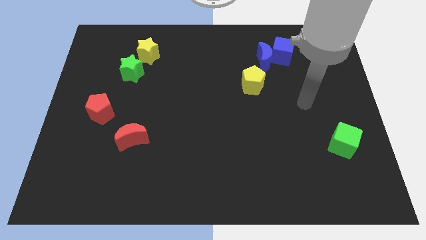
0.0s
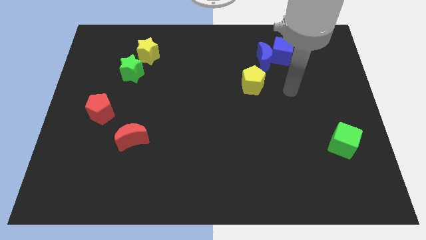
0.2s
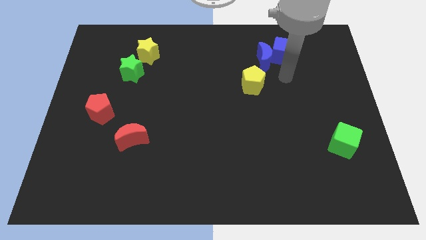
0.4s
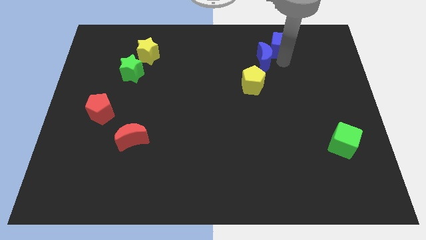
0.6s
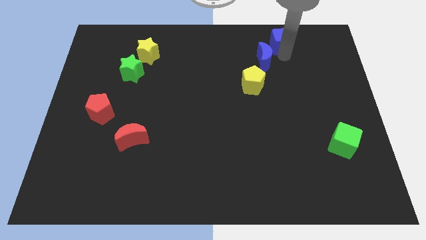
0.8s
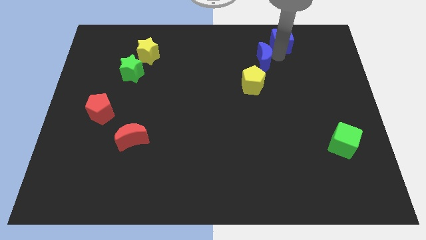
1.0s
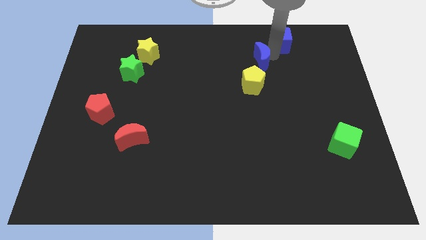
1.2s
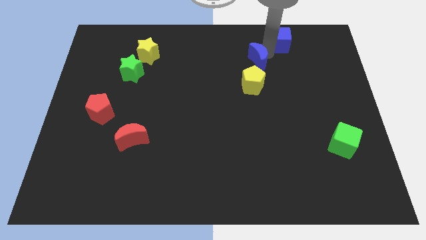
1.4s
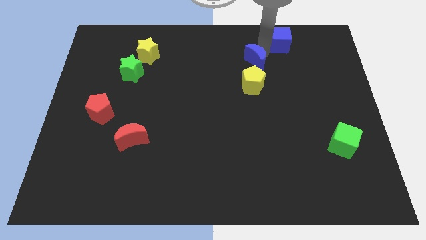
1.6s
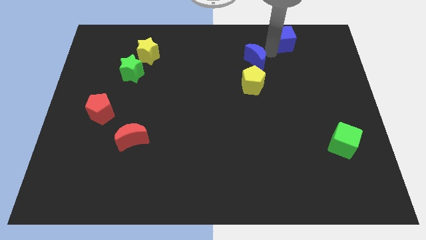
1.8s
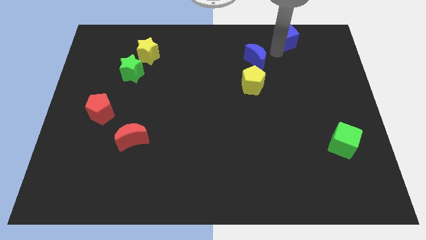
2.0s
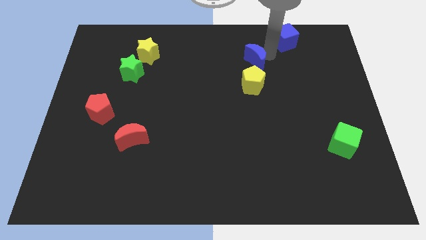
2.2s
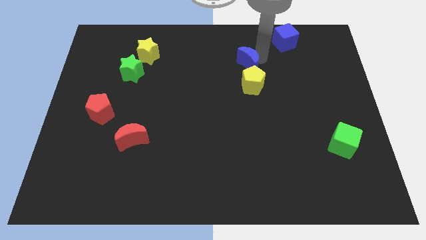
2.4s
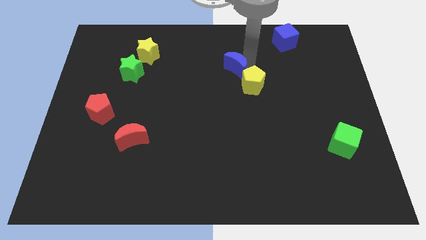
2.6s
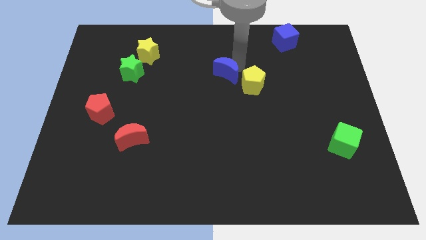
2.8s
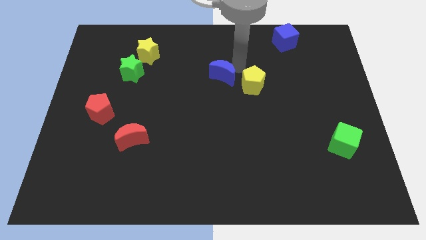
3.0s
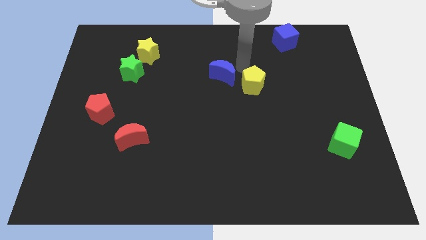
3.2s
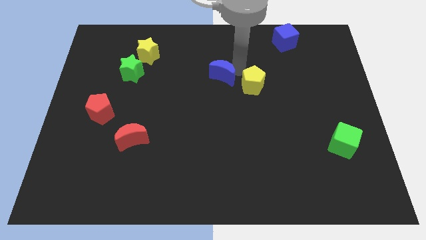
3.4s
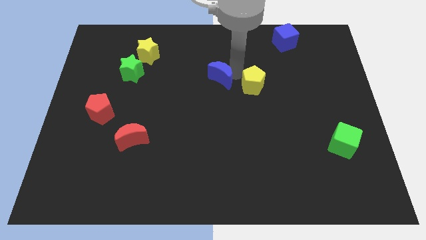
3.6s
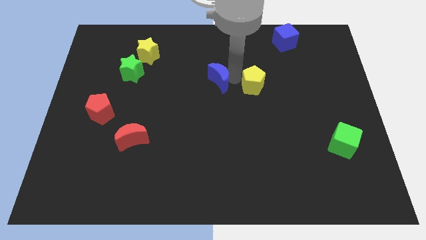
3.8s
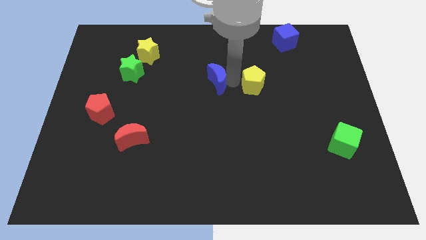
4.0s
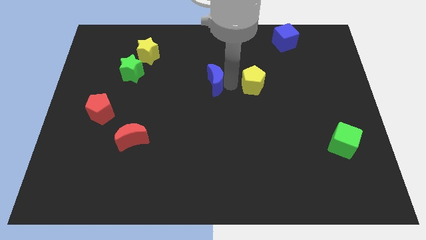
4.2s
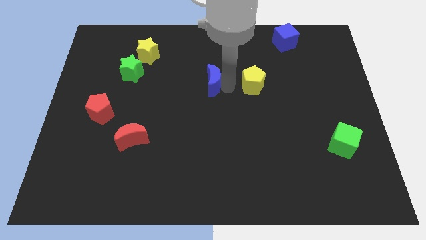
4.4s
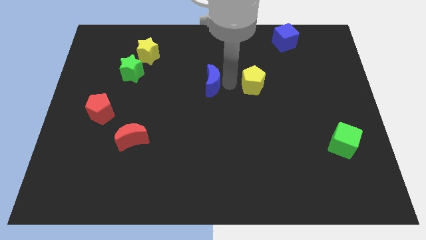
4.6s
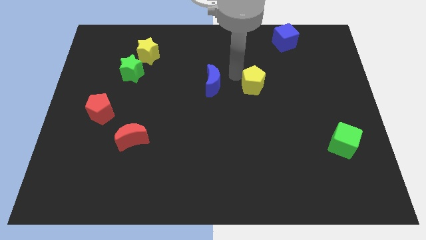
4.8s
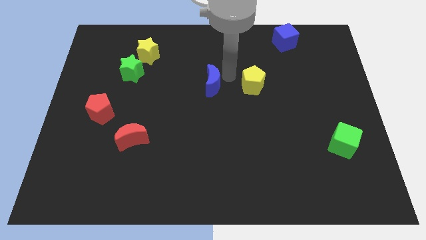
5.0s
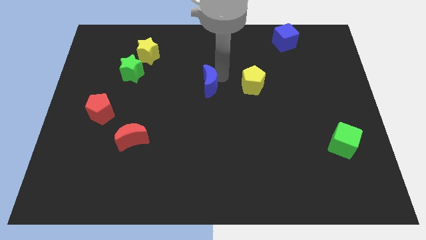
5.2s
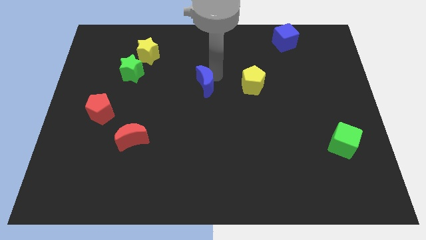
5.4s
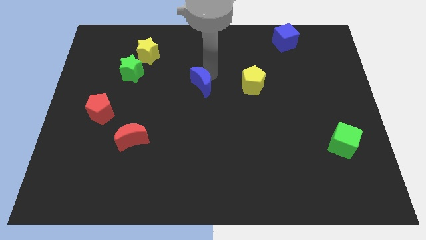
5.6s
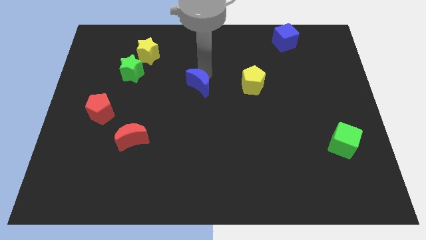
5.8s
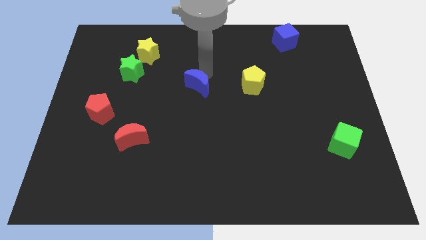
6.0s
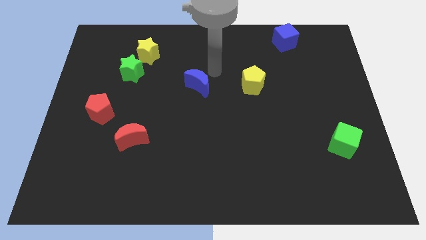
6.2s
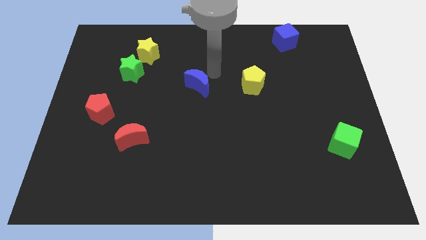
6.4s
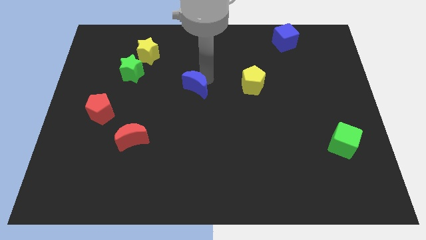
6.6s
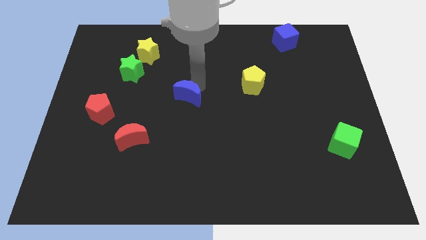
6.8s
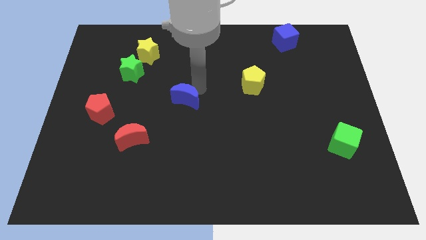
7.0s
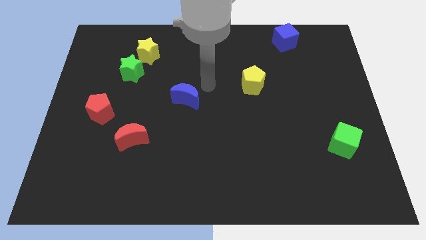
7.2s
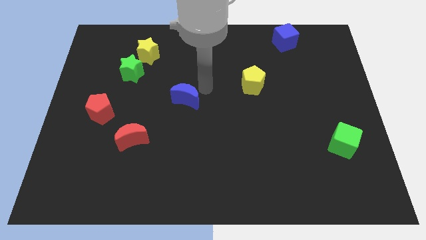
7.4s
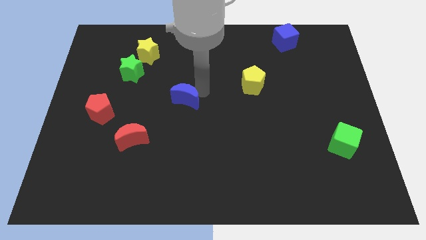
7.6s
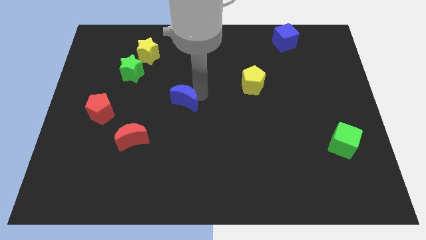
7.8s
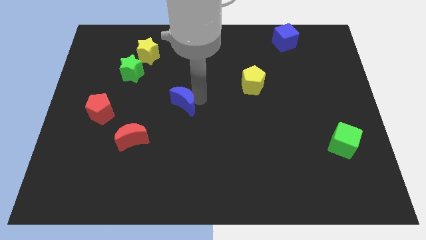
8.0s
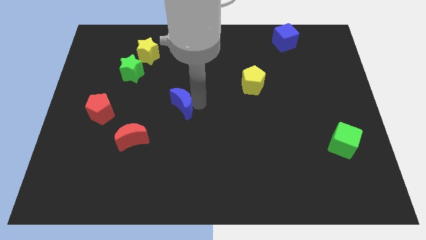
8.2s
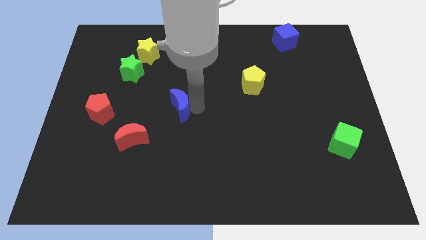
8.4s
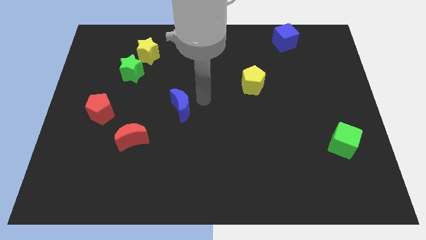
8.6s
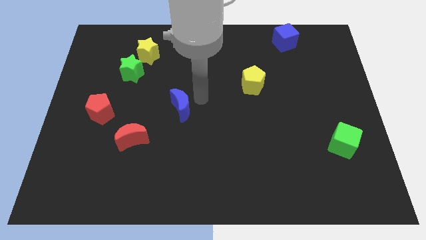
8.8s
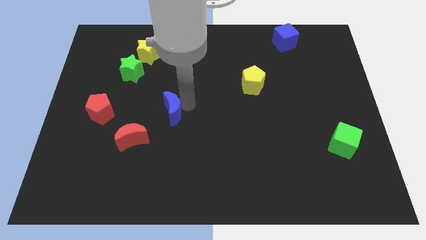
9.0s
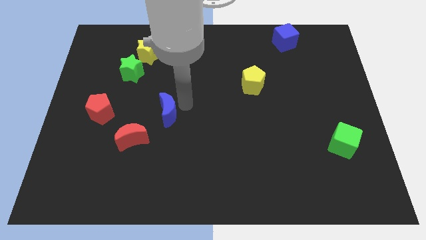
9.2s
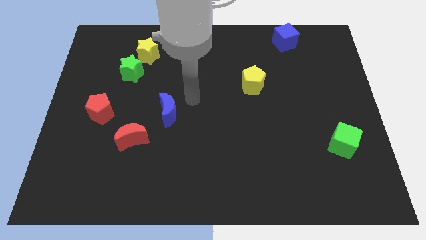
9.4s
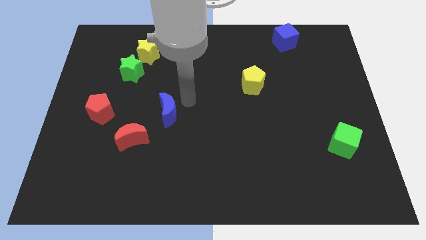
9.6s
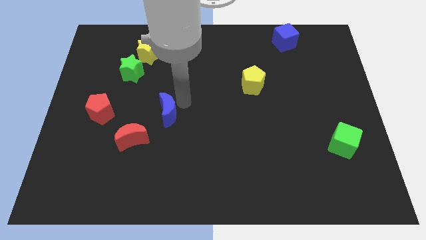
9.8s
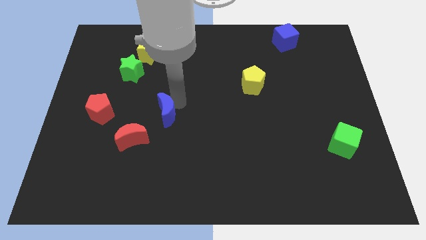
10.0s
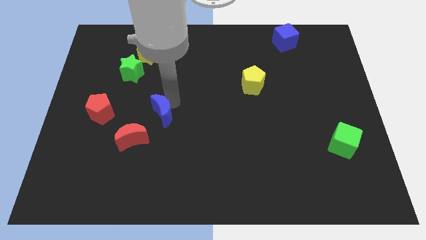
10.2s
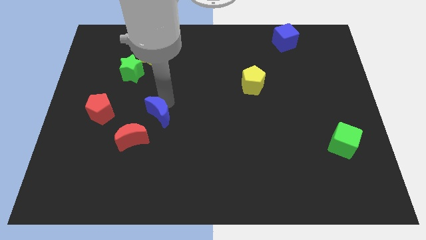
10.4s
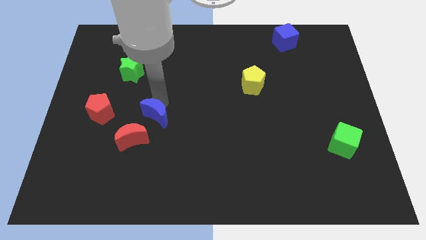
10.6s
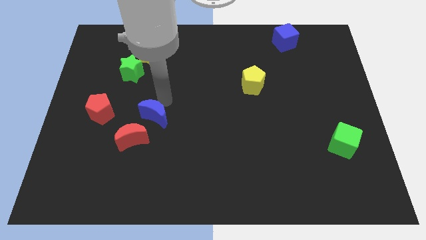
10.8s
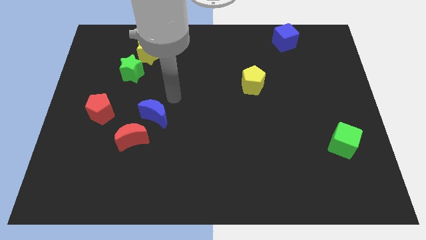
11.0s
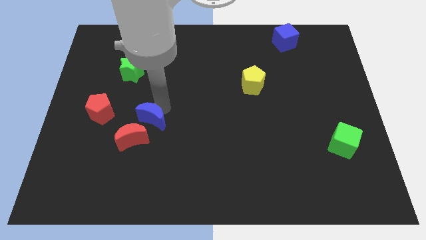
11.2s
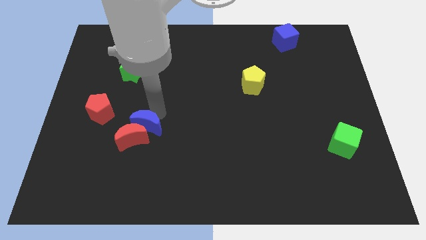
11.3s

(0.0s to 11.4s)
move the blue moon close to the red moon

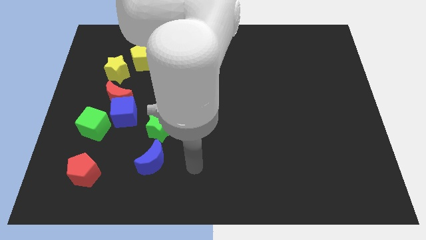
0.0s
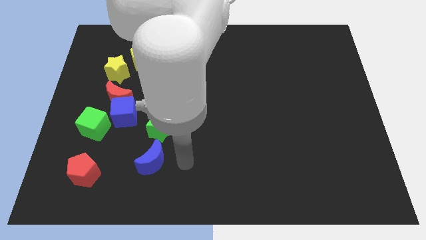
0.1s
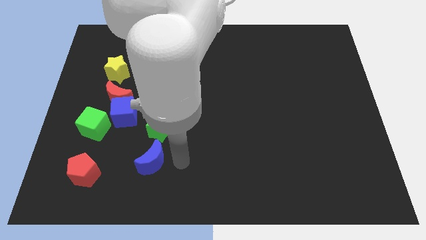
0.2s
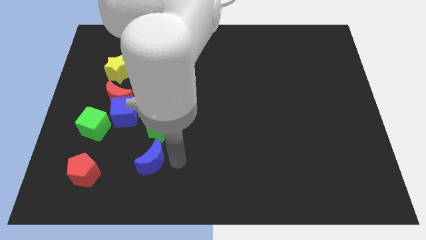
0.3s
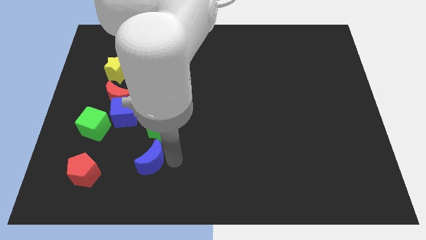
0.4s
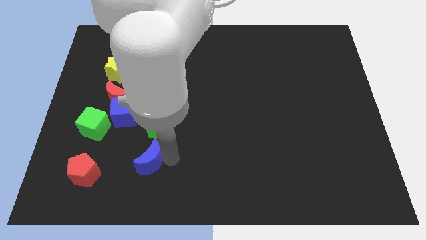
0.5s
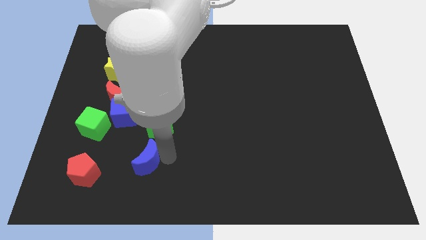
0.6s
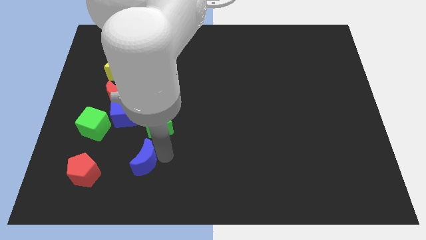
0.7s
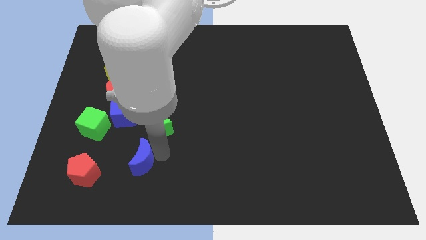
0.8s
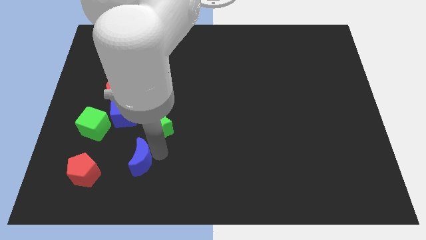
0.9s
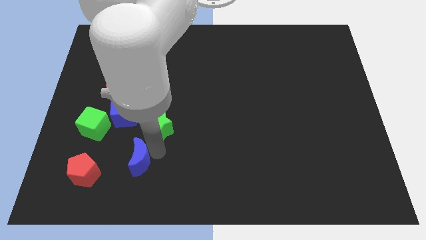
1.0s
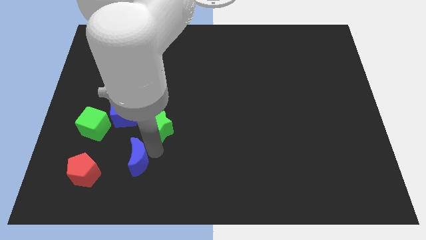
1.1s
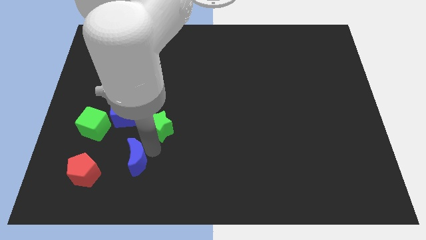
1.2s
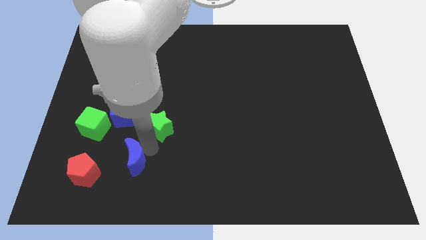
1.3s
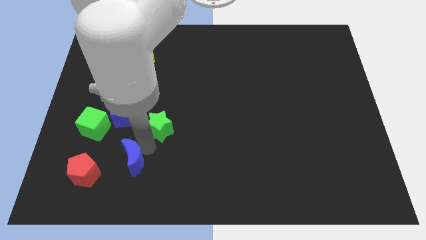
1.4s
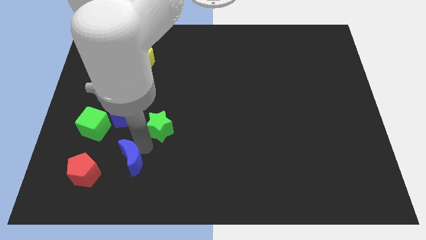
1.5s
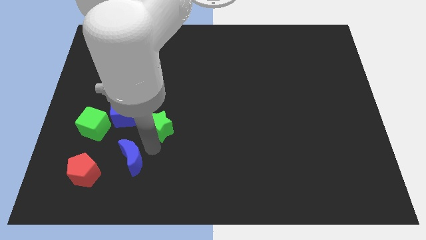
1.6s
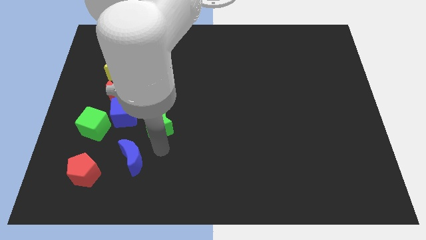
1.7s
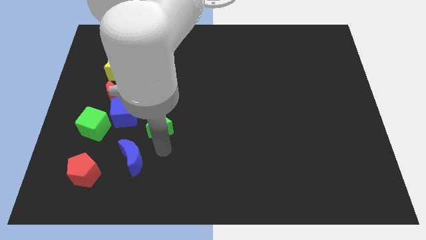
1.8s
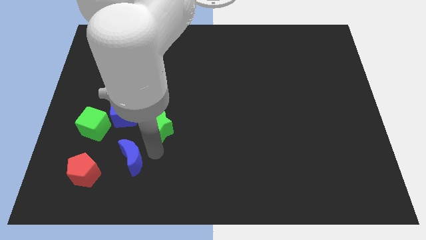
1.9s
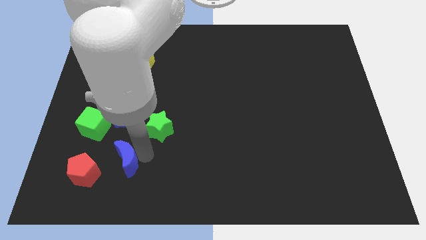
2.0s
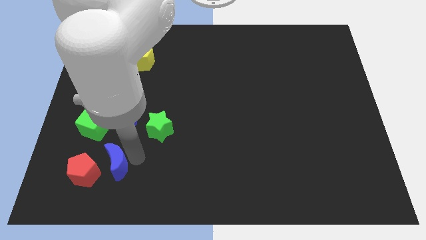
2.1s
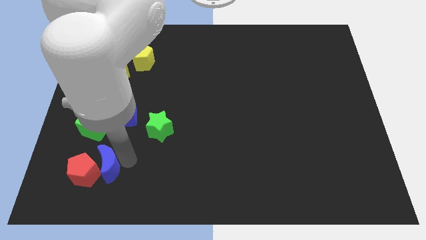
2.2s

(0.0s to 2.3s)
slide the blue moon close to the red pentagon
